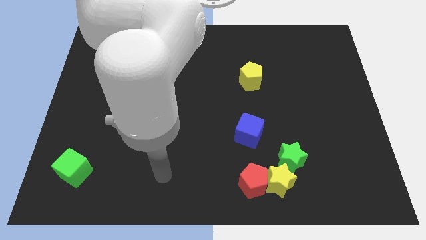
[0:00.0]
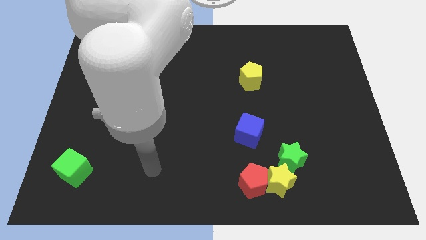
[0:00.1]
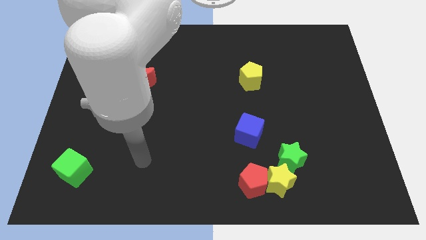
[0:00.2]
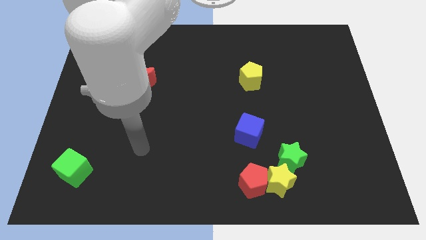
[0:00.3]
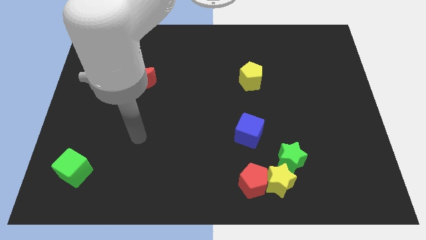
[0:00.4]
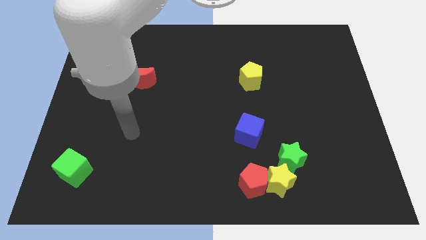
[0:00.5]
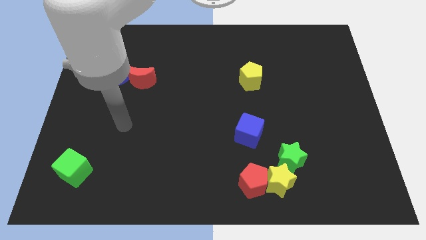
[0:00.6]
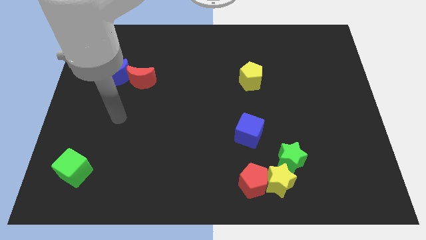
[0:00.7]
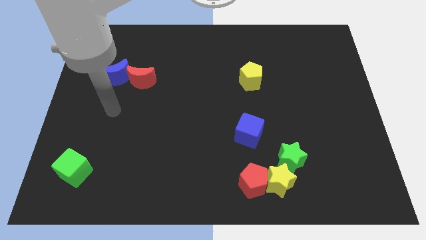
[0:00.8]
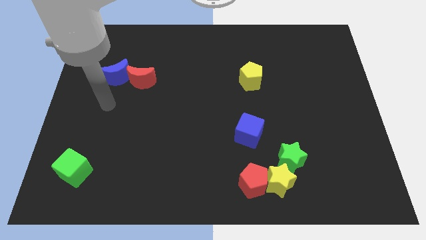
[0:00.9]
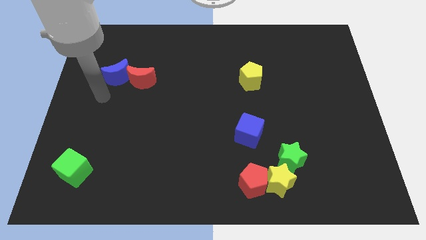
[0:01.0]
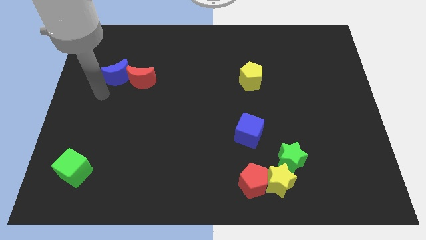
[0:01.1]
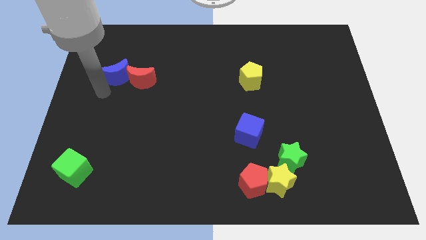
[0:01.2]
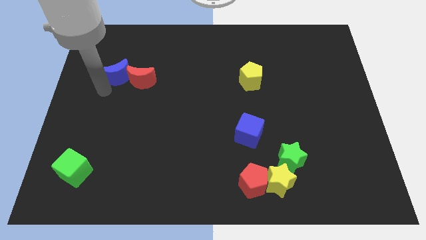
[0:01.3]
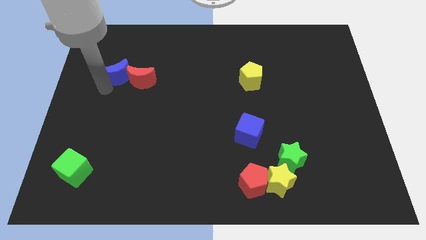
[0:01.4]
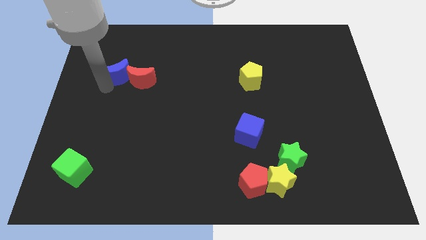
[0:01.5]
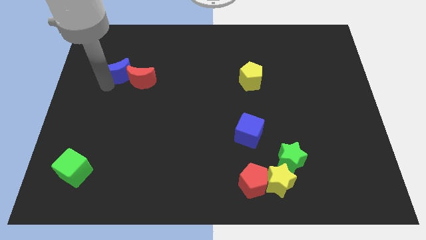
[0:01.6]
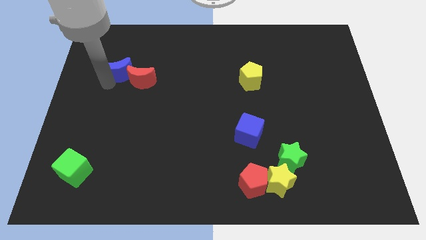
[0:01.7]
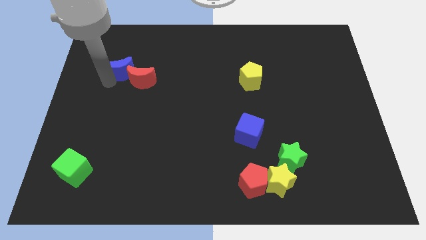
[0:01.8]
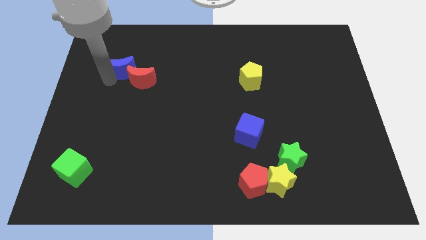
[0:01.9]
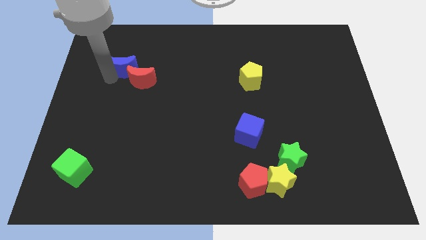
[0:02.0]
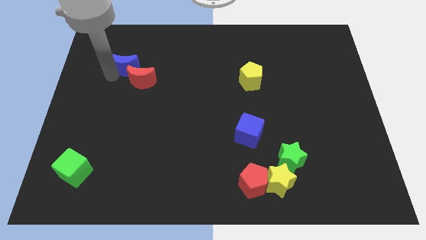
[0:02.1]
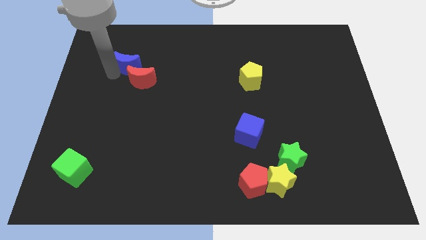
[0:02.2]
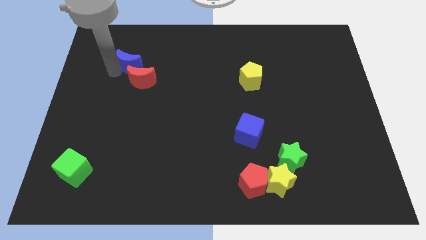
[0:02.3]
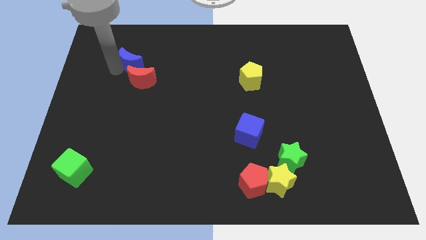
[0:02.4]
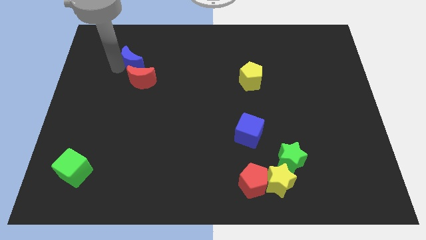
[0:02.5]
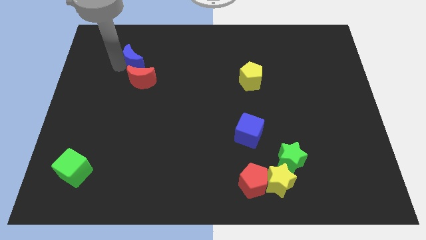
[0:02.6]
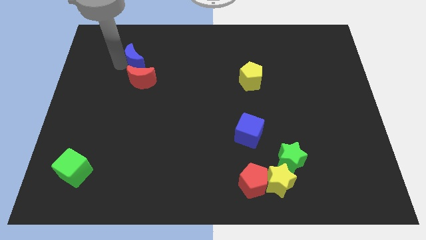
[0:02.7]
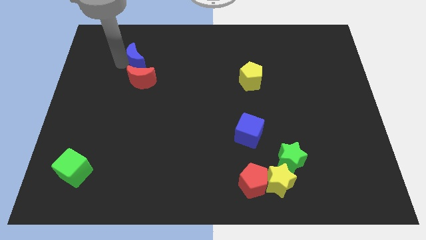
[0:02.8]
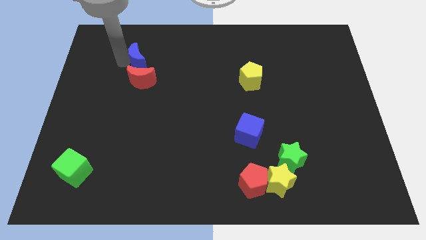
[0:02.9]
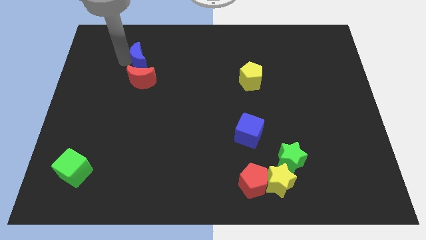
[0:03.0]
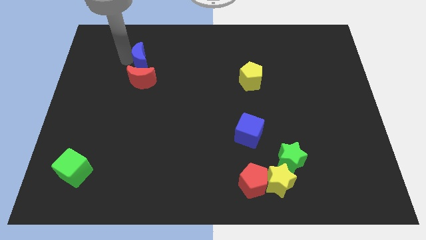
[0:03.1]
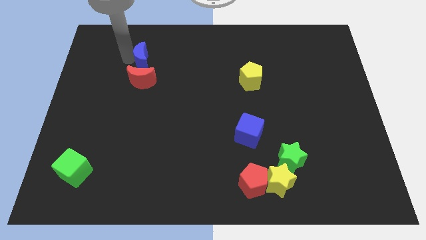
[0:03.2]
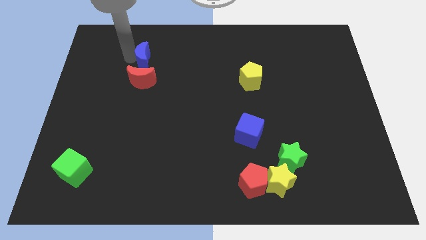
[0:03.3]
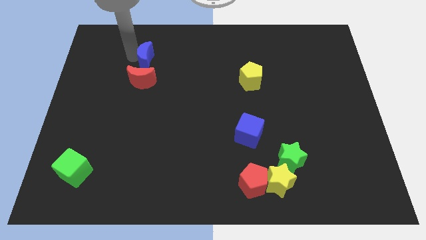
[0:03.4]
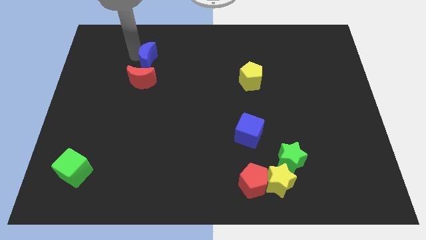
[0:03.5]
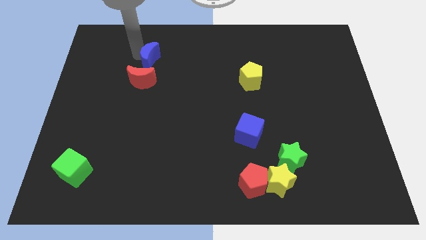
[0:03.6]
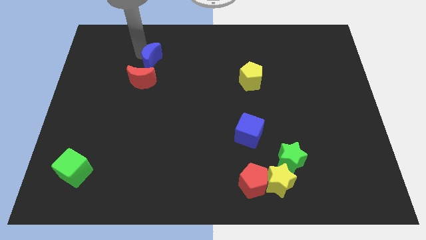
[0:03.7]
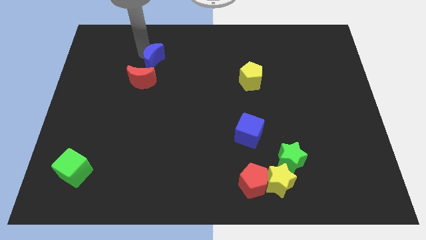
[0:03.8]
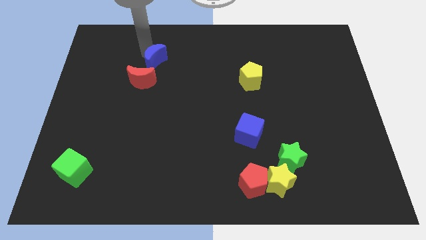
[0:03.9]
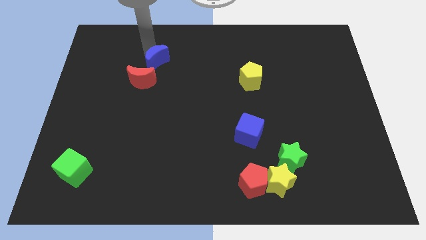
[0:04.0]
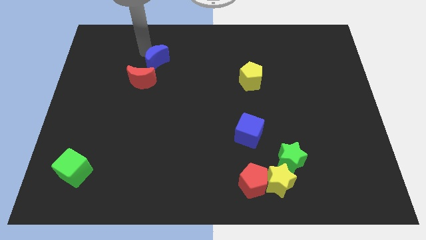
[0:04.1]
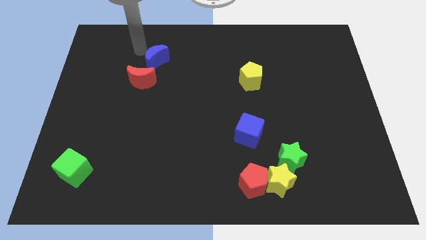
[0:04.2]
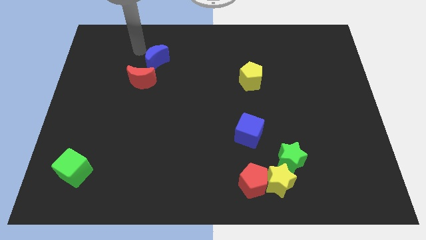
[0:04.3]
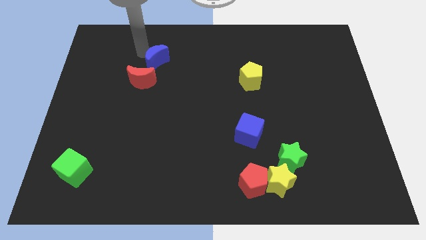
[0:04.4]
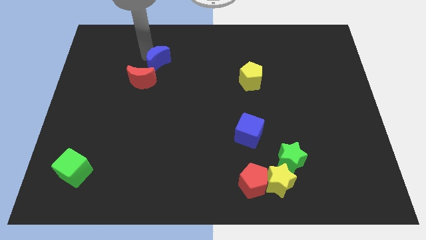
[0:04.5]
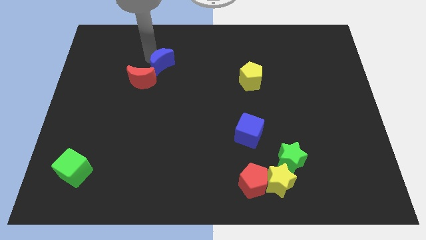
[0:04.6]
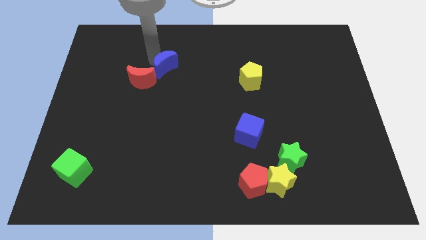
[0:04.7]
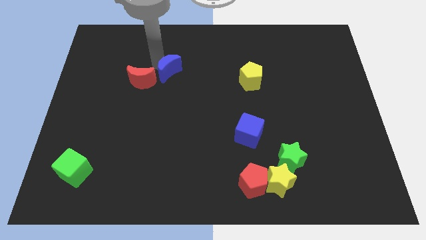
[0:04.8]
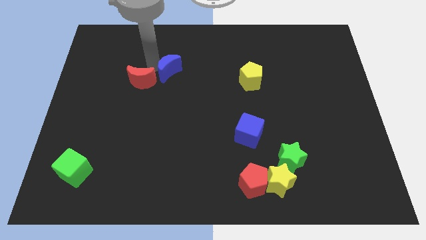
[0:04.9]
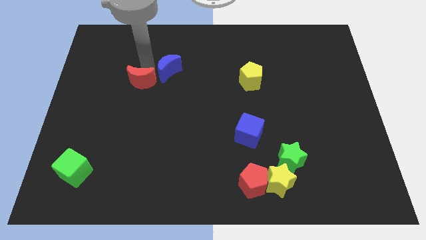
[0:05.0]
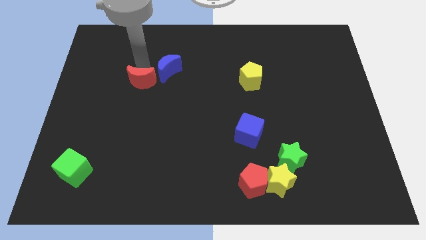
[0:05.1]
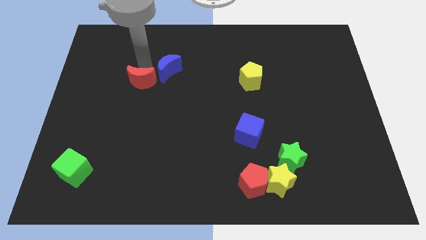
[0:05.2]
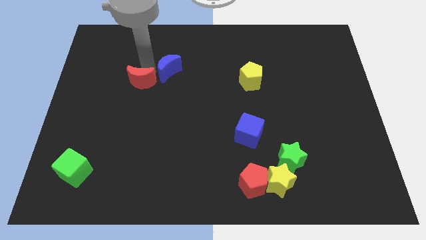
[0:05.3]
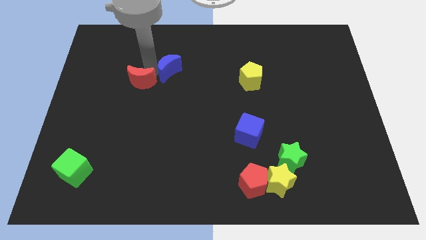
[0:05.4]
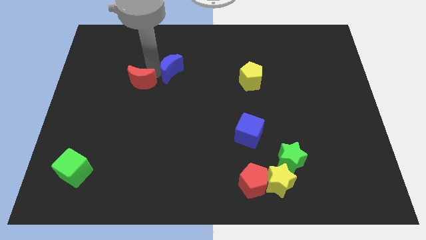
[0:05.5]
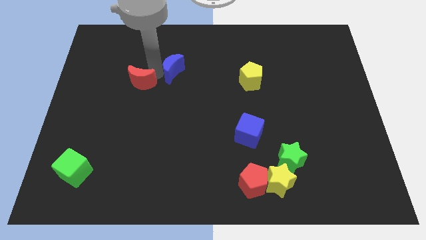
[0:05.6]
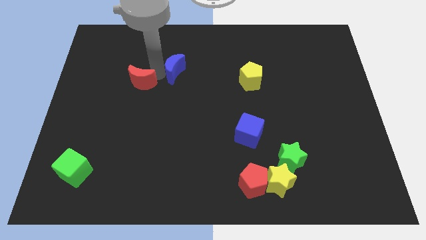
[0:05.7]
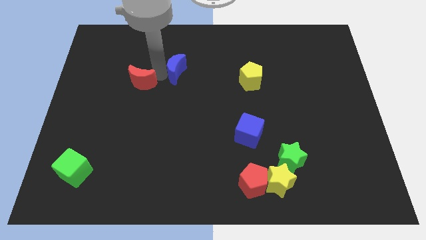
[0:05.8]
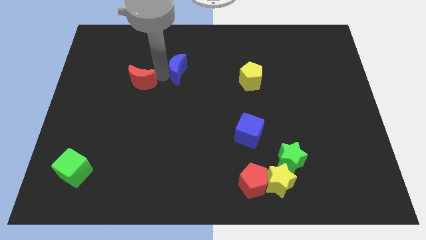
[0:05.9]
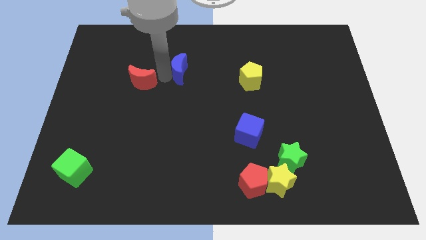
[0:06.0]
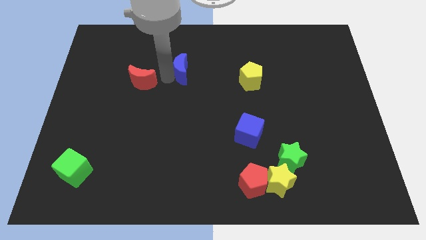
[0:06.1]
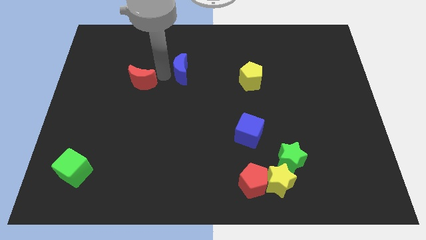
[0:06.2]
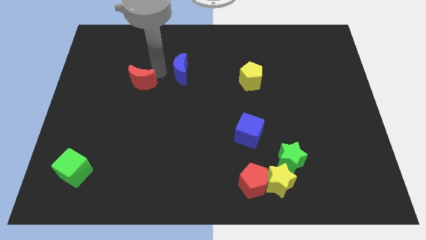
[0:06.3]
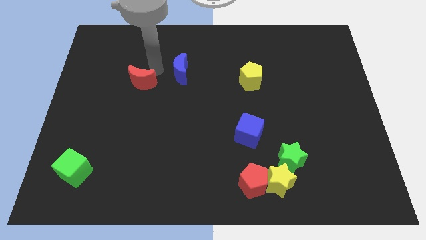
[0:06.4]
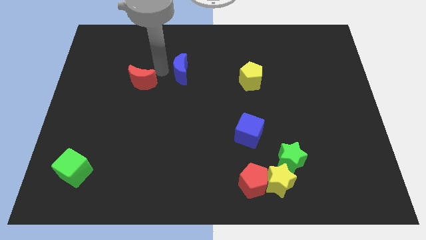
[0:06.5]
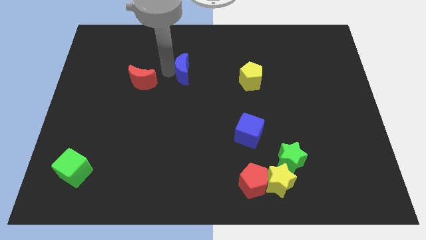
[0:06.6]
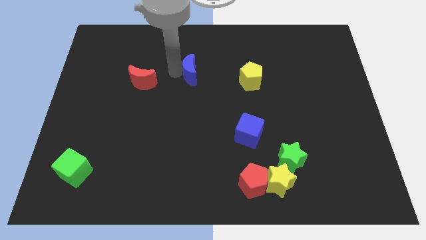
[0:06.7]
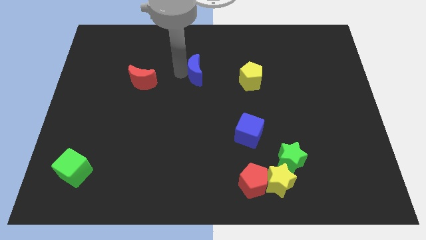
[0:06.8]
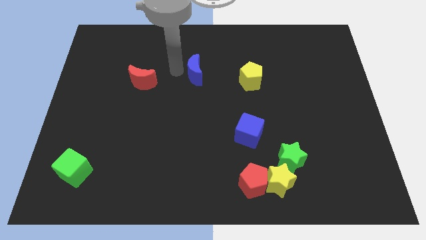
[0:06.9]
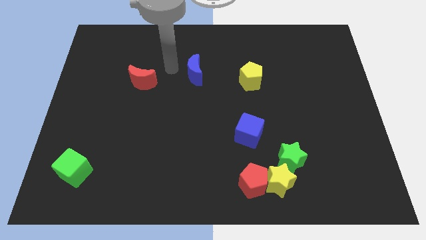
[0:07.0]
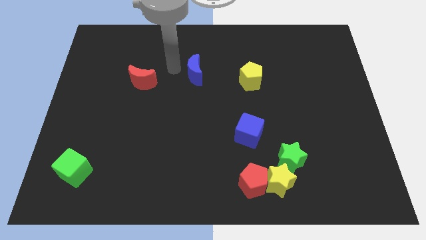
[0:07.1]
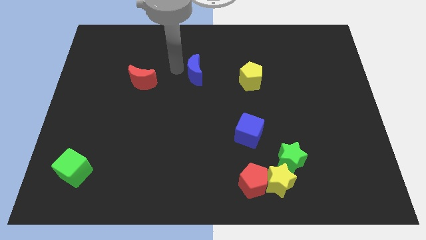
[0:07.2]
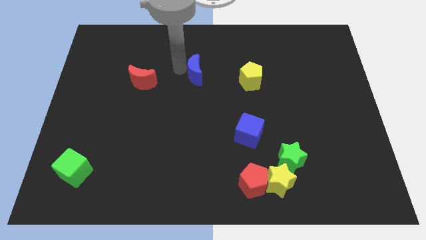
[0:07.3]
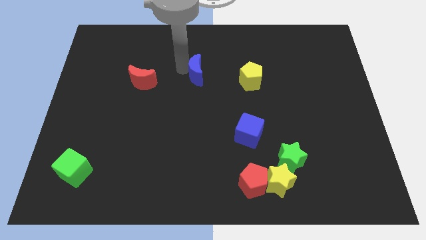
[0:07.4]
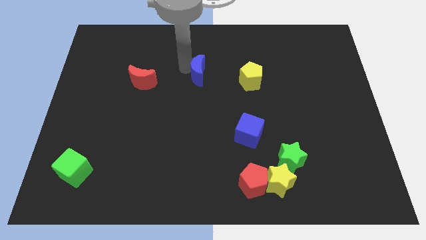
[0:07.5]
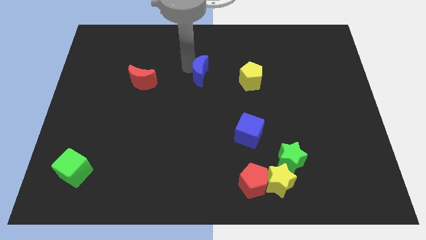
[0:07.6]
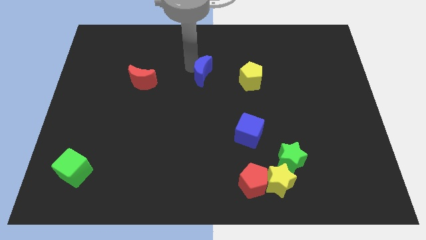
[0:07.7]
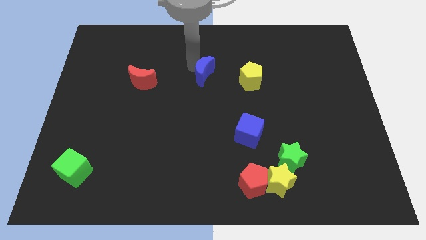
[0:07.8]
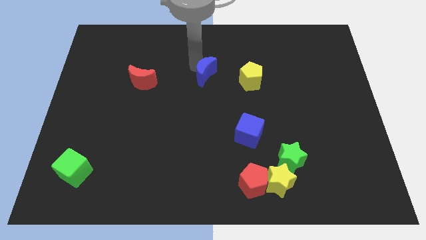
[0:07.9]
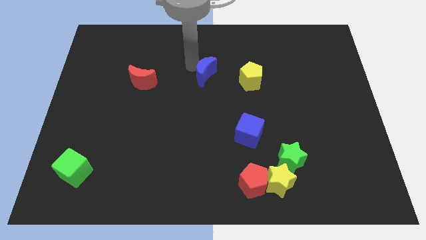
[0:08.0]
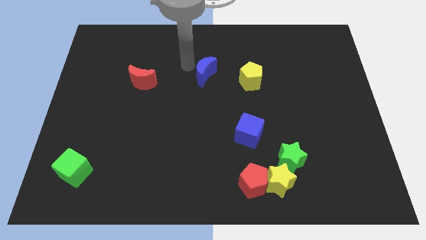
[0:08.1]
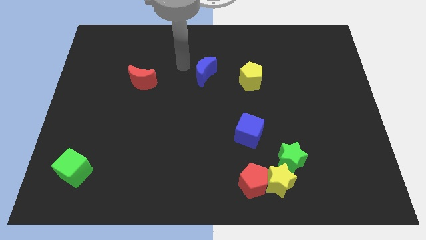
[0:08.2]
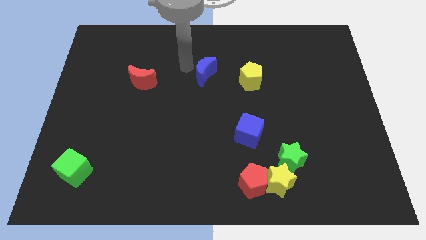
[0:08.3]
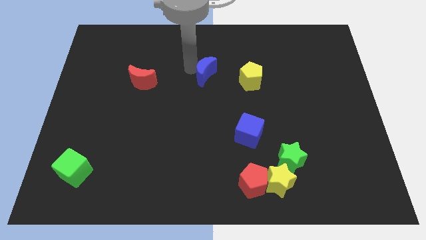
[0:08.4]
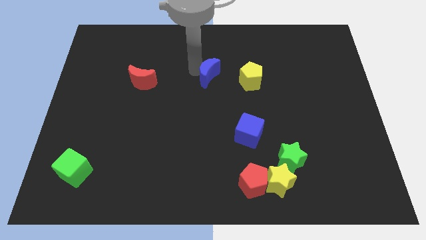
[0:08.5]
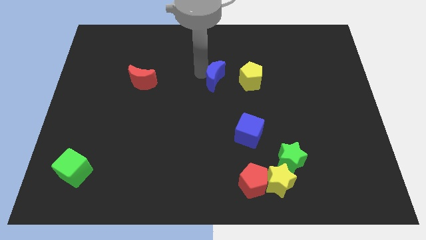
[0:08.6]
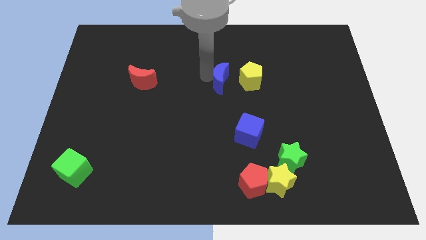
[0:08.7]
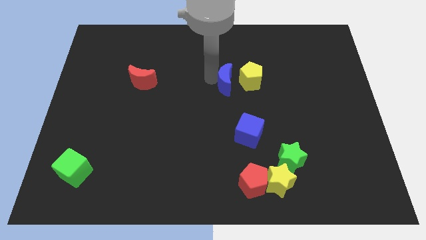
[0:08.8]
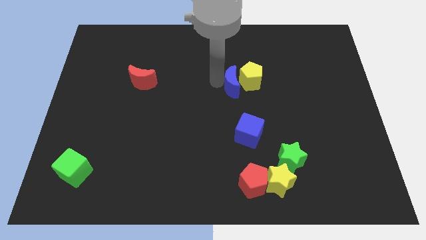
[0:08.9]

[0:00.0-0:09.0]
slide the blue moon to the yellow pentagon
